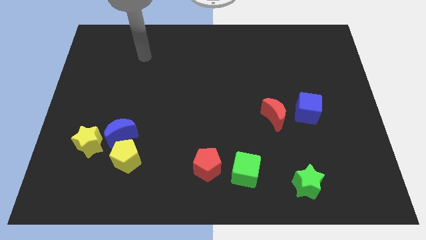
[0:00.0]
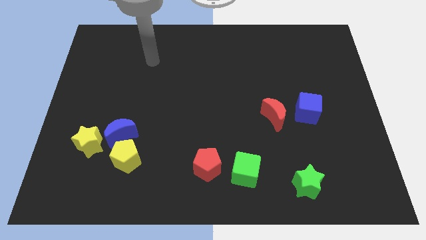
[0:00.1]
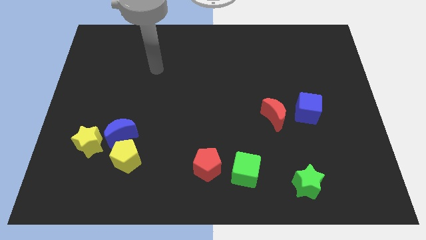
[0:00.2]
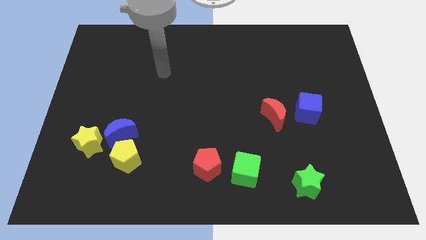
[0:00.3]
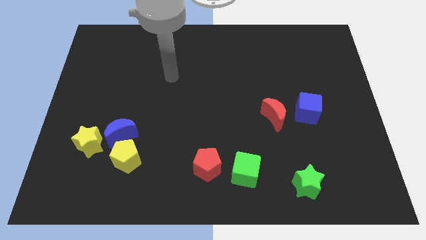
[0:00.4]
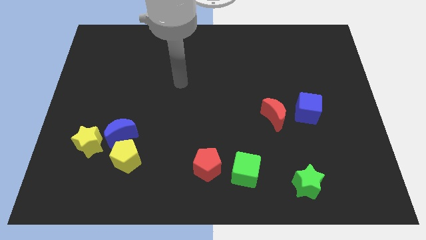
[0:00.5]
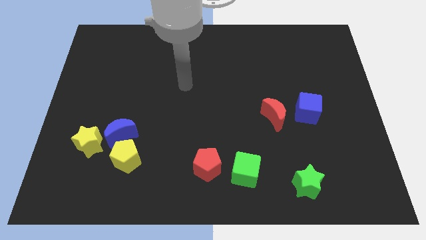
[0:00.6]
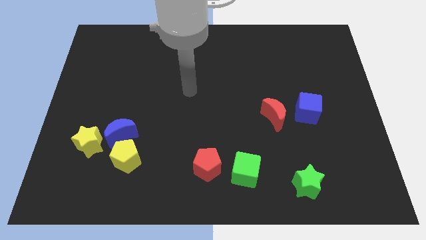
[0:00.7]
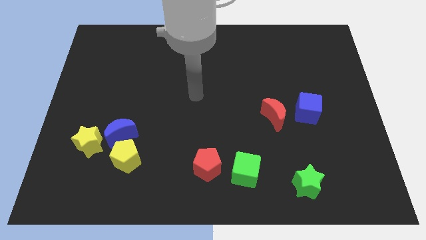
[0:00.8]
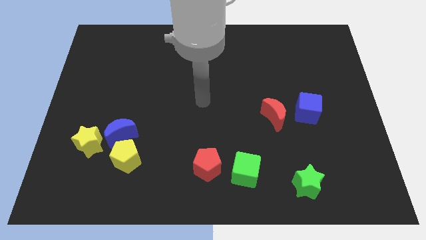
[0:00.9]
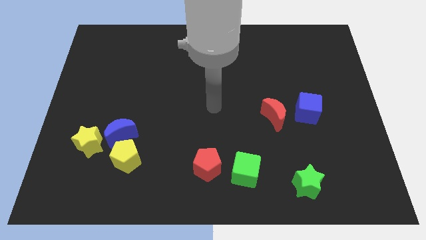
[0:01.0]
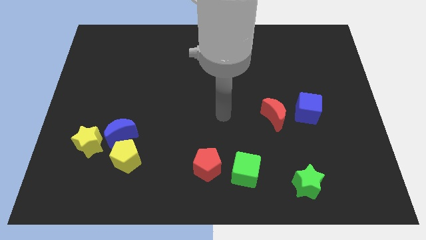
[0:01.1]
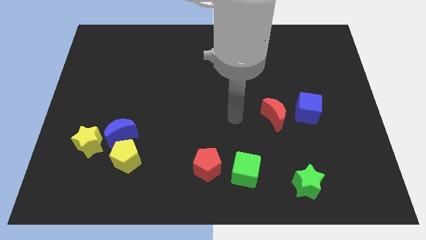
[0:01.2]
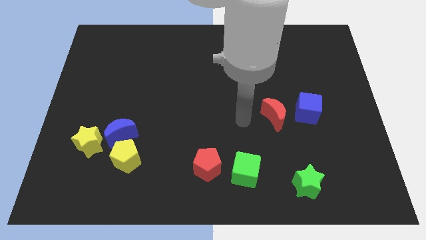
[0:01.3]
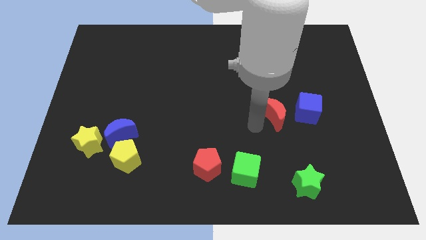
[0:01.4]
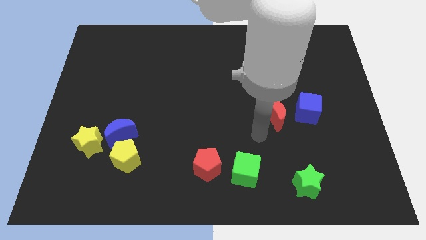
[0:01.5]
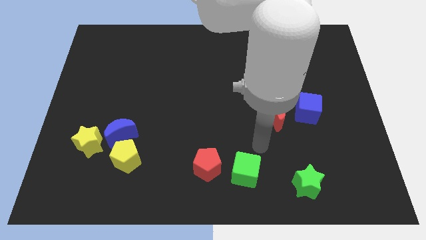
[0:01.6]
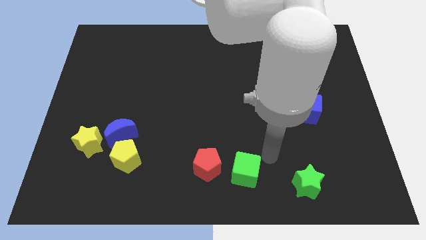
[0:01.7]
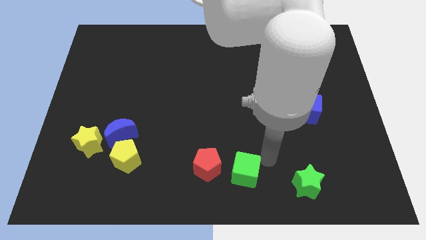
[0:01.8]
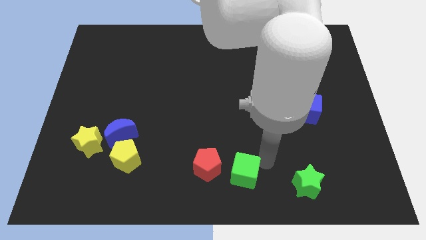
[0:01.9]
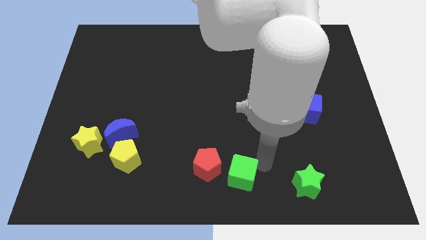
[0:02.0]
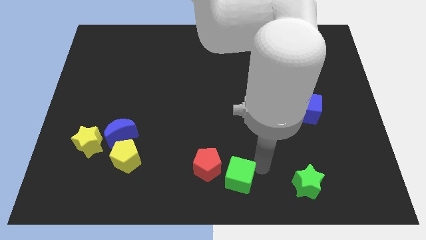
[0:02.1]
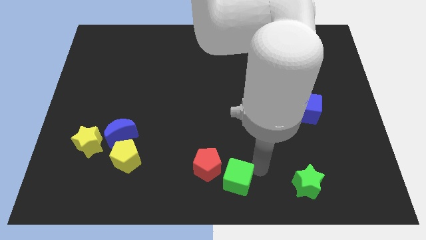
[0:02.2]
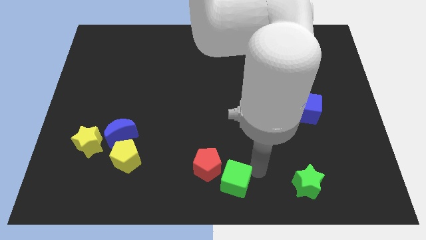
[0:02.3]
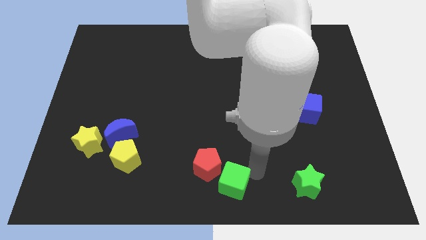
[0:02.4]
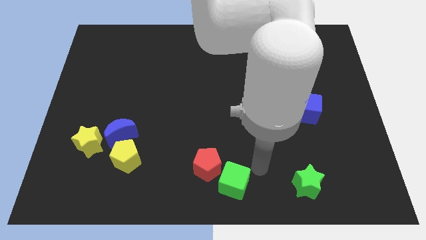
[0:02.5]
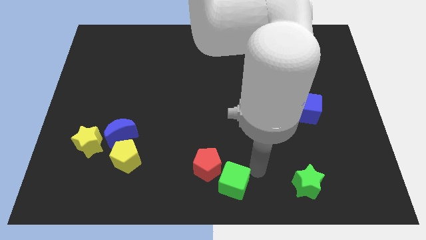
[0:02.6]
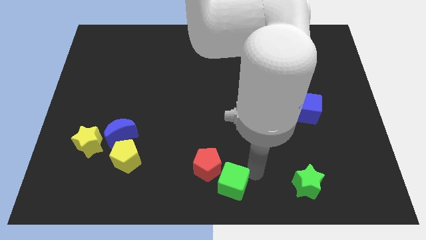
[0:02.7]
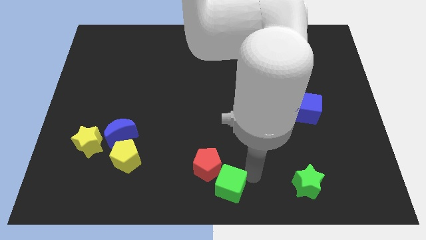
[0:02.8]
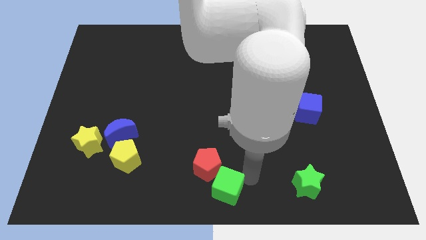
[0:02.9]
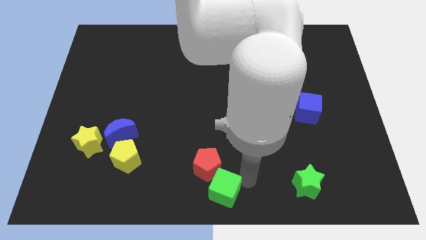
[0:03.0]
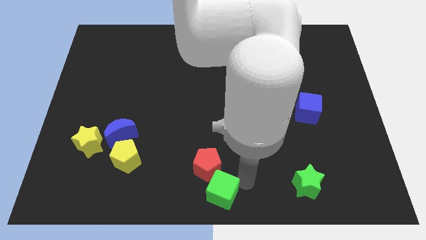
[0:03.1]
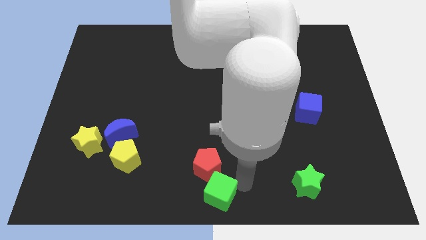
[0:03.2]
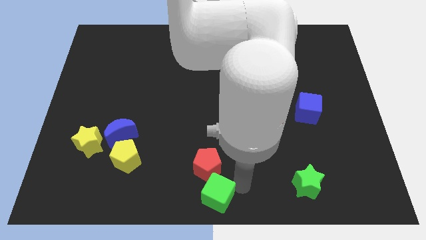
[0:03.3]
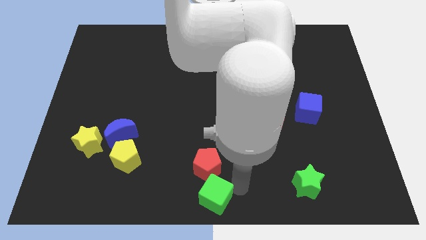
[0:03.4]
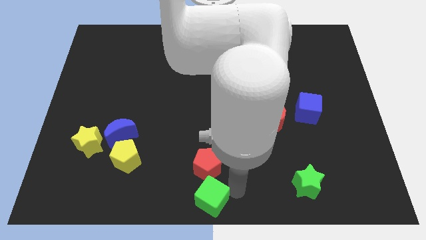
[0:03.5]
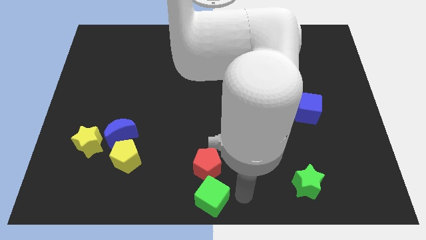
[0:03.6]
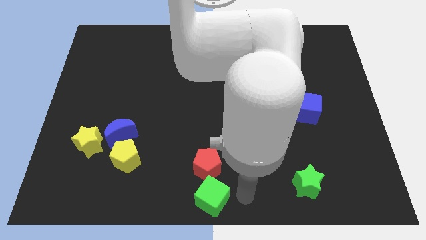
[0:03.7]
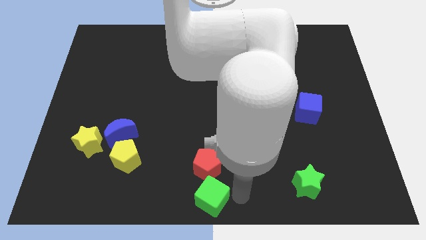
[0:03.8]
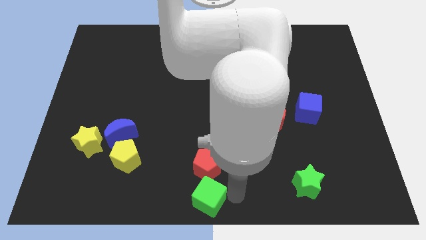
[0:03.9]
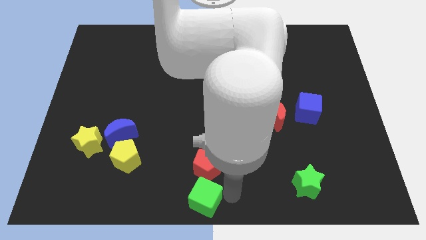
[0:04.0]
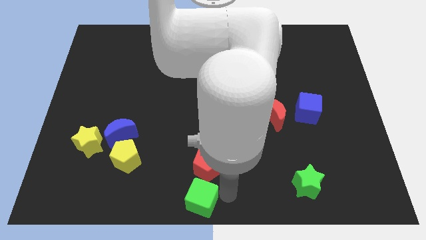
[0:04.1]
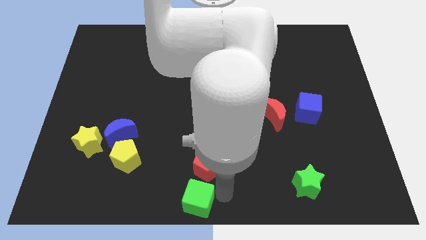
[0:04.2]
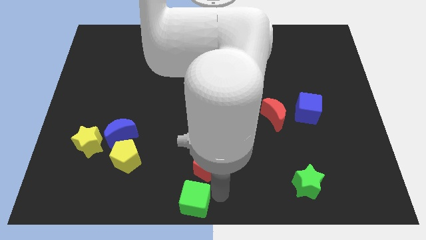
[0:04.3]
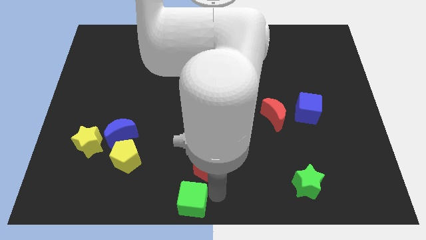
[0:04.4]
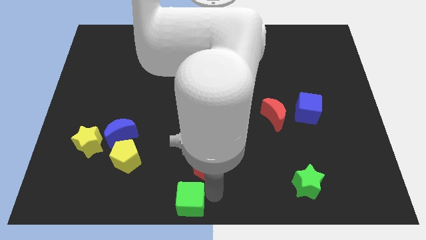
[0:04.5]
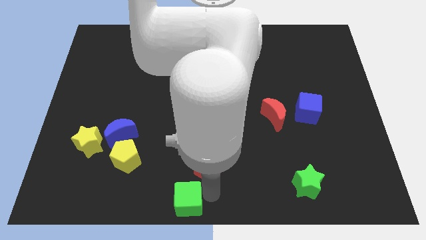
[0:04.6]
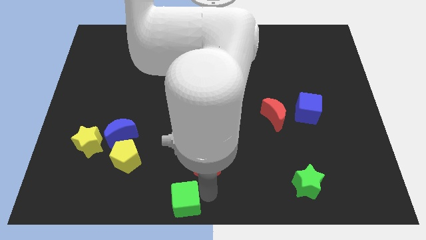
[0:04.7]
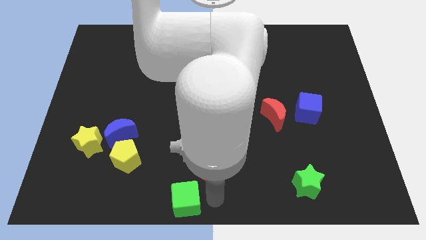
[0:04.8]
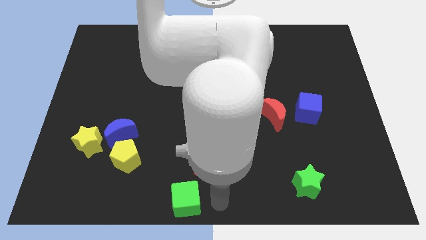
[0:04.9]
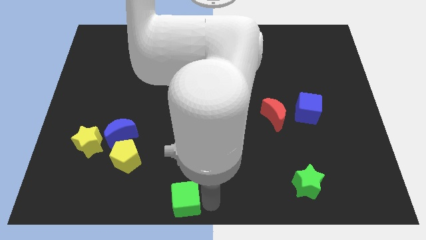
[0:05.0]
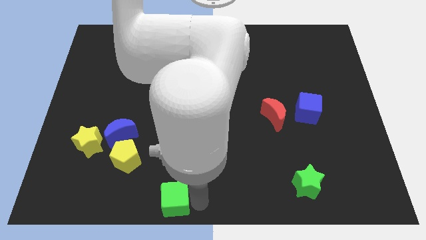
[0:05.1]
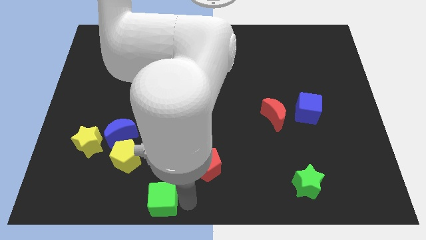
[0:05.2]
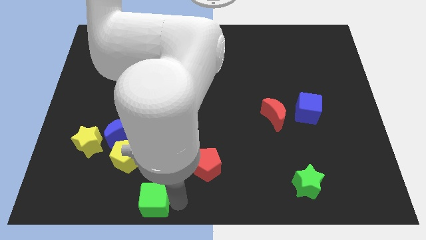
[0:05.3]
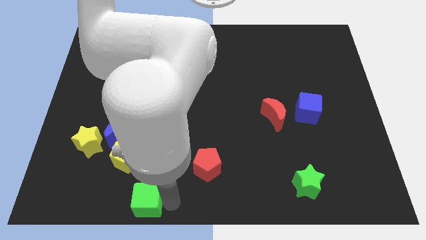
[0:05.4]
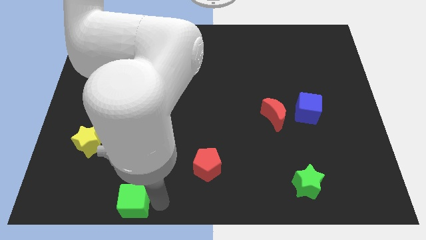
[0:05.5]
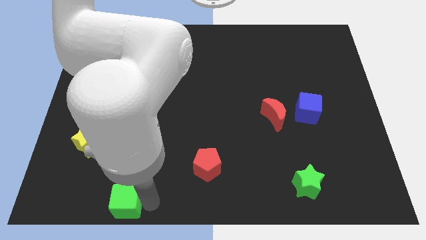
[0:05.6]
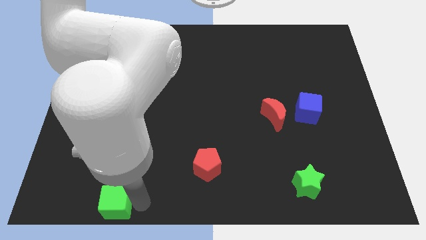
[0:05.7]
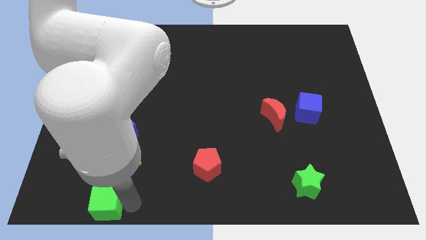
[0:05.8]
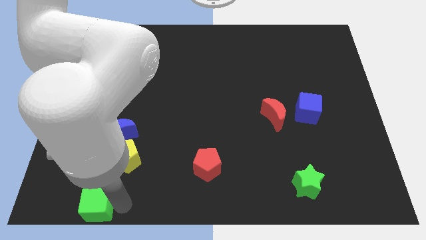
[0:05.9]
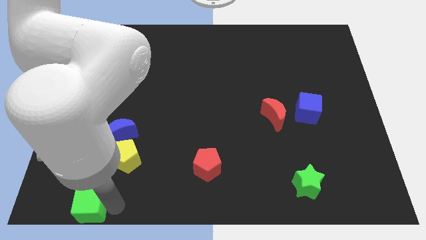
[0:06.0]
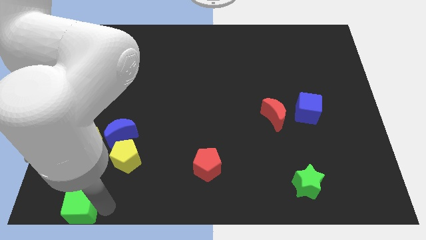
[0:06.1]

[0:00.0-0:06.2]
move the green cube to the bottom left corner

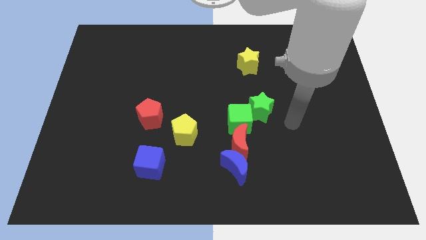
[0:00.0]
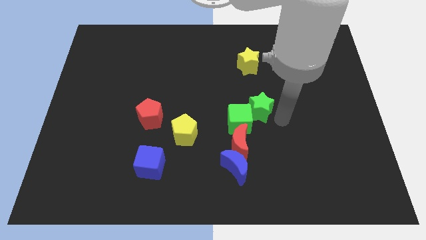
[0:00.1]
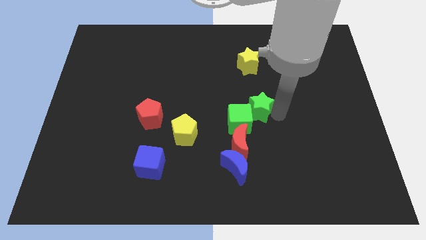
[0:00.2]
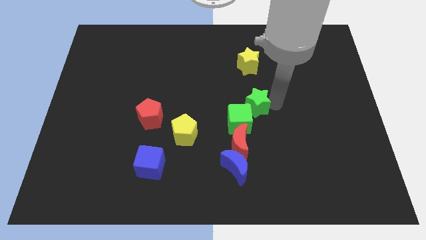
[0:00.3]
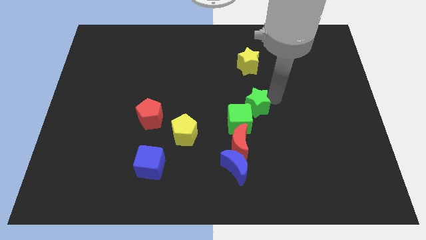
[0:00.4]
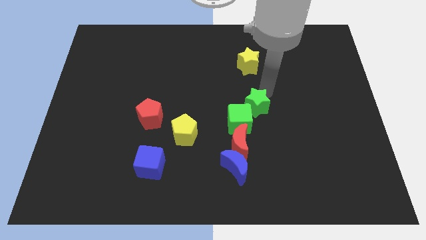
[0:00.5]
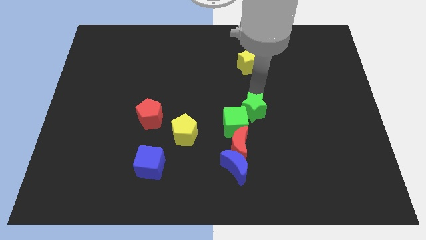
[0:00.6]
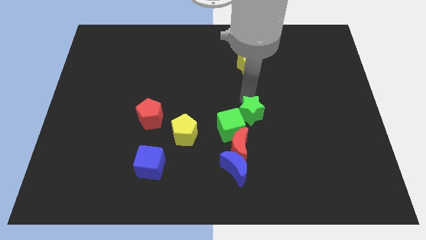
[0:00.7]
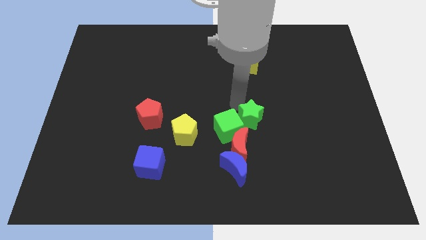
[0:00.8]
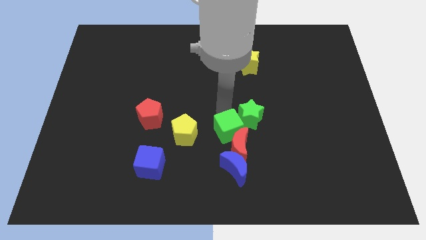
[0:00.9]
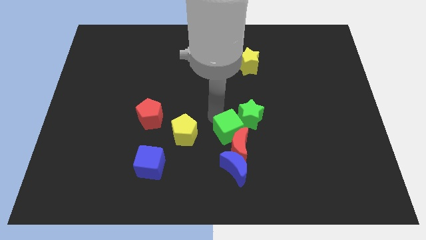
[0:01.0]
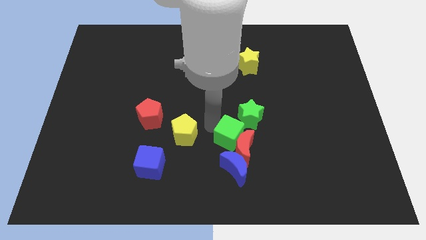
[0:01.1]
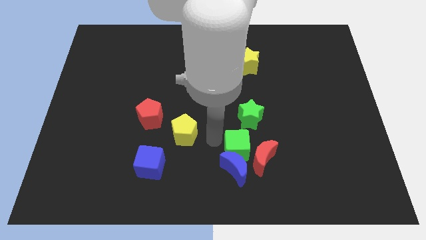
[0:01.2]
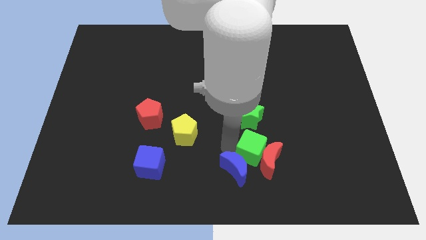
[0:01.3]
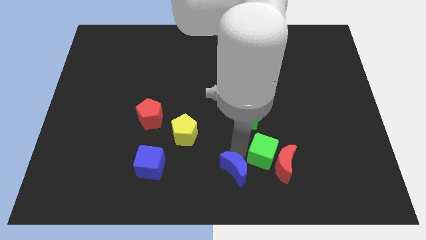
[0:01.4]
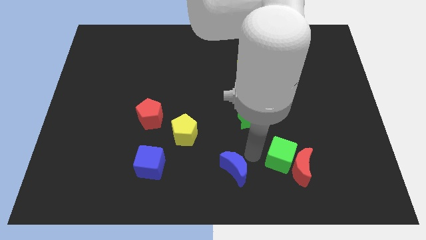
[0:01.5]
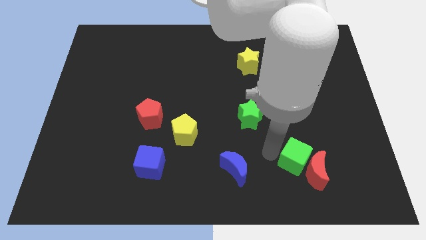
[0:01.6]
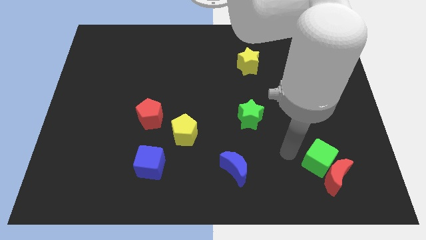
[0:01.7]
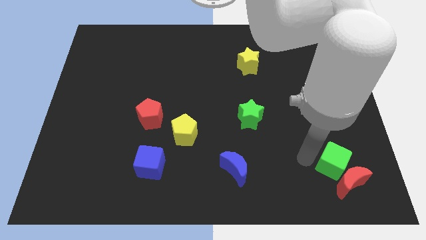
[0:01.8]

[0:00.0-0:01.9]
move the red moon to the lower right corner
